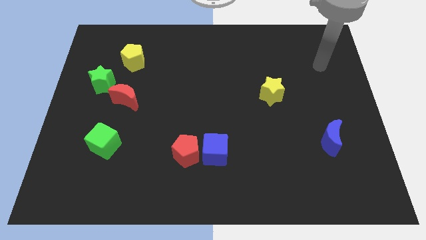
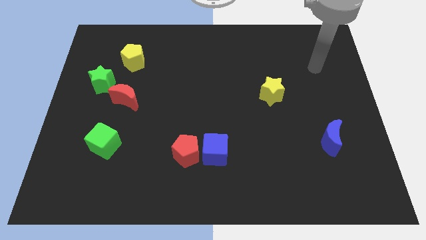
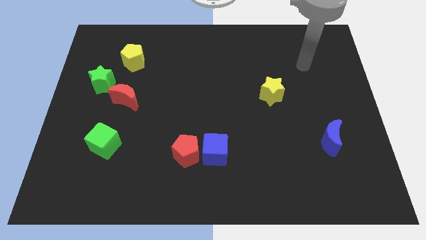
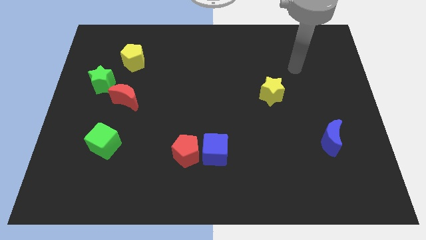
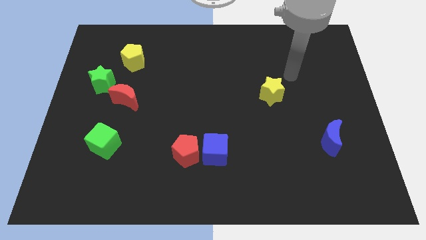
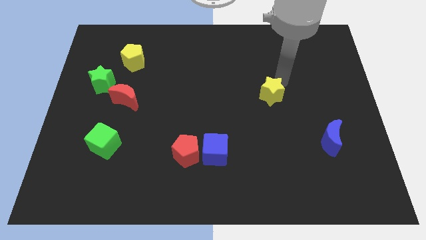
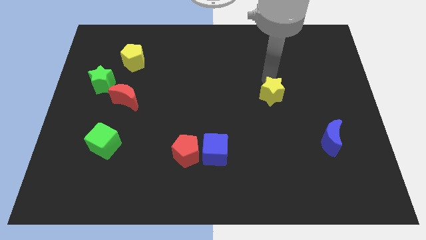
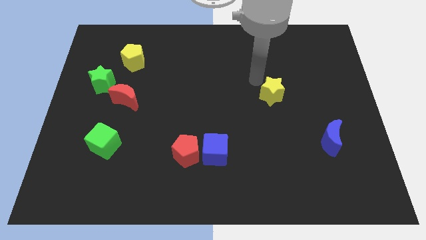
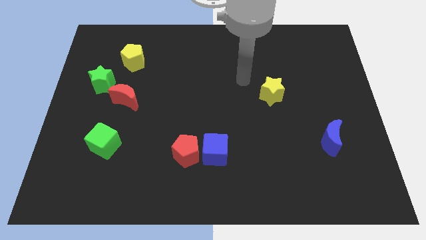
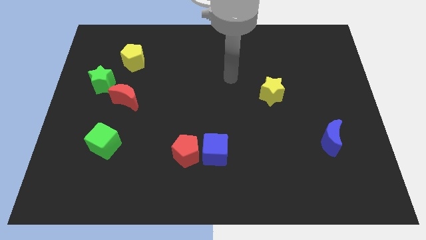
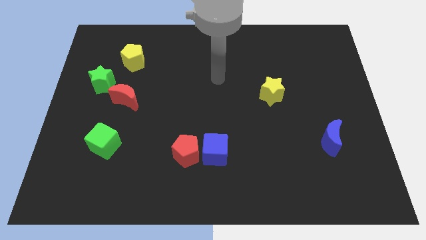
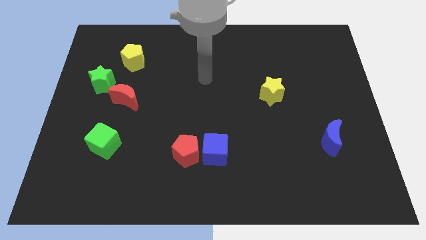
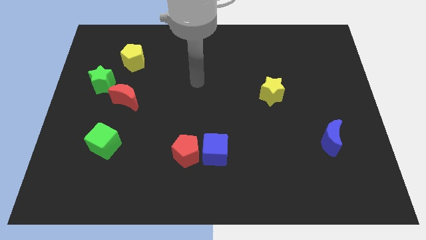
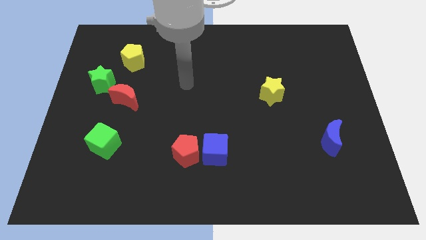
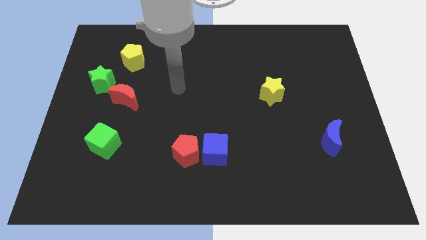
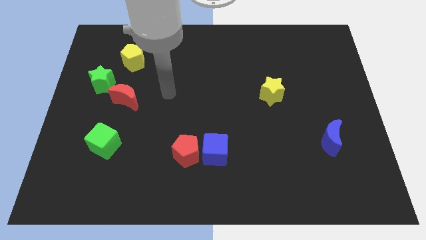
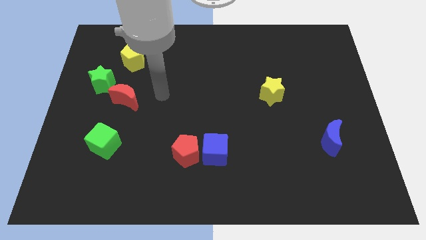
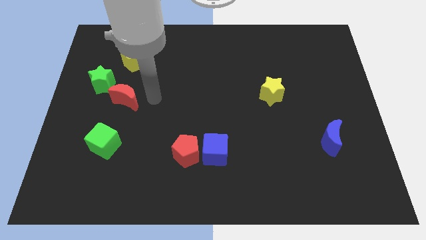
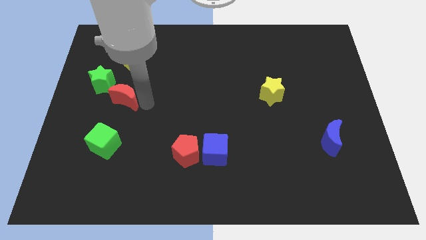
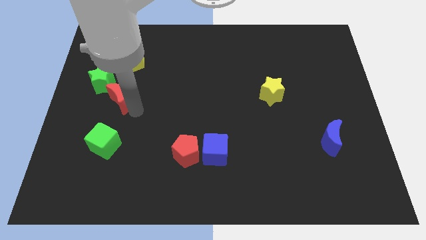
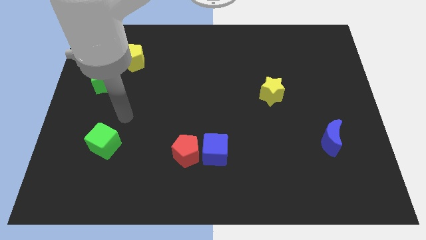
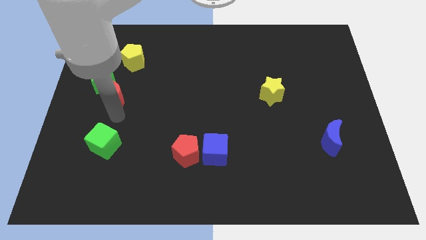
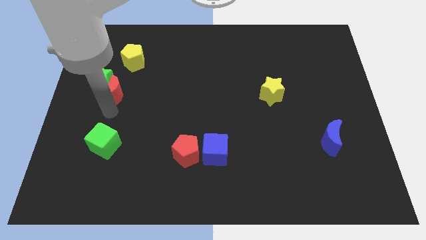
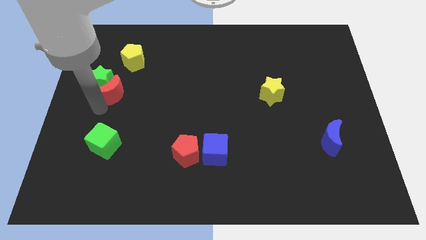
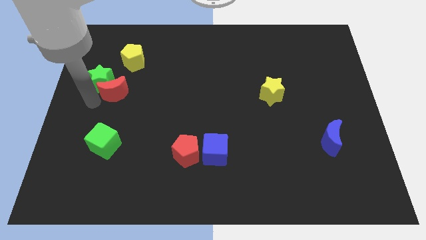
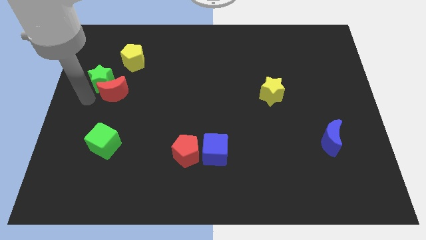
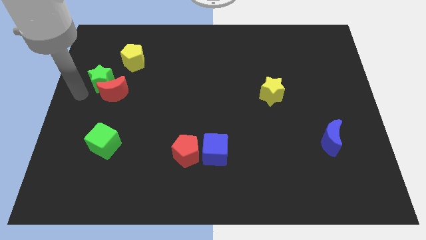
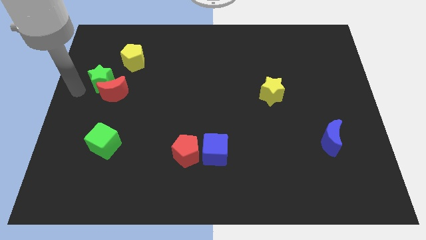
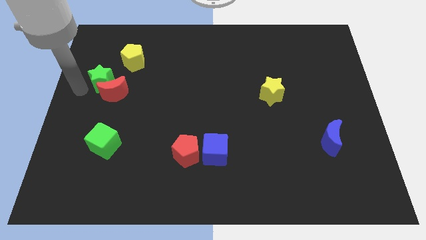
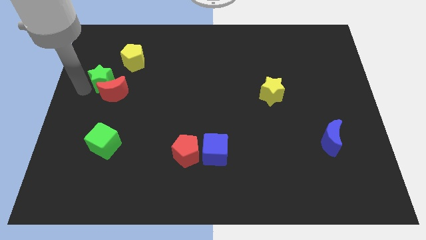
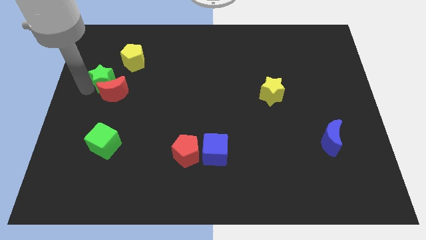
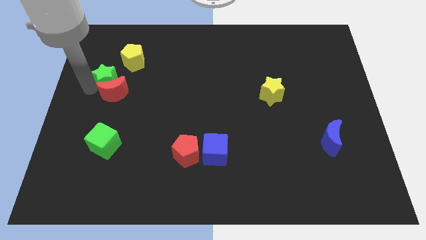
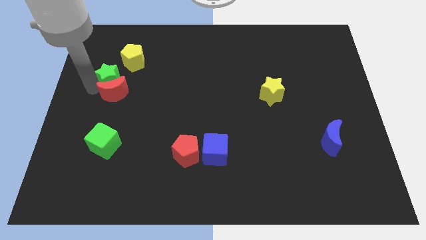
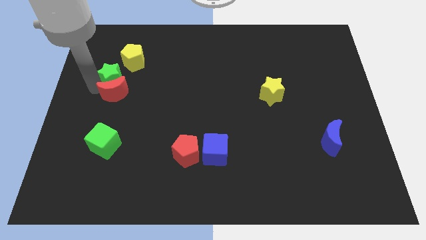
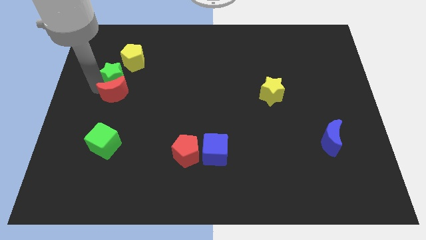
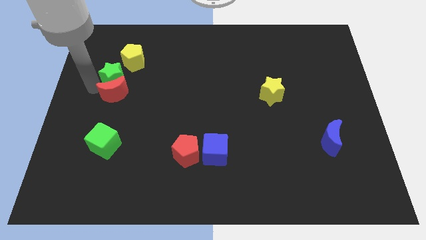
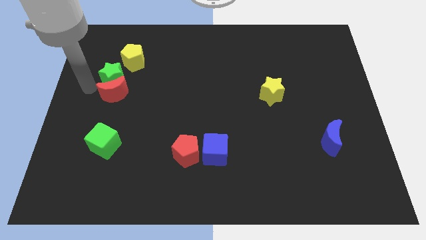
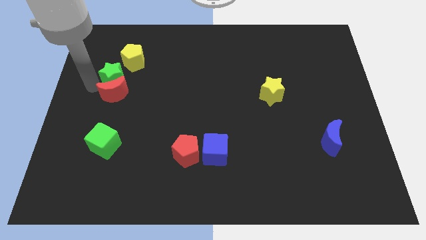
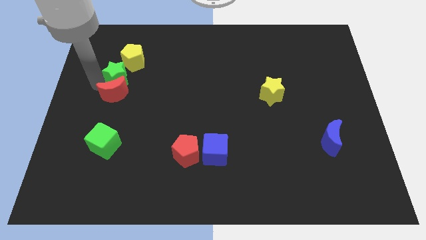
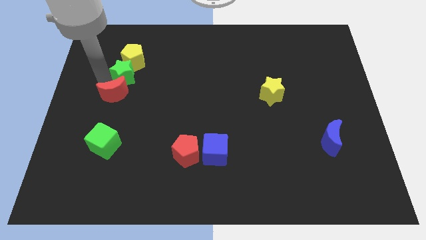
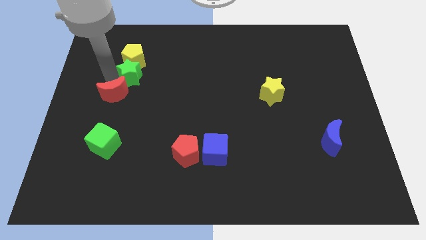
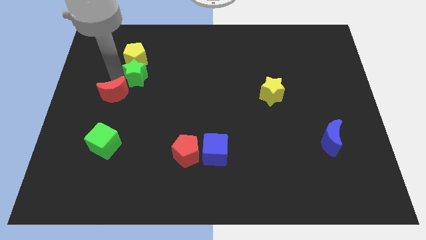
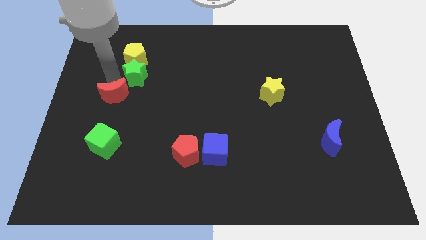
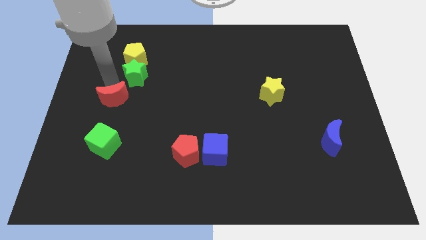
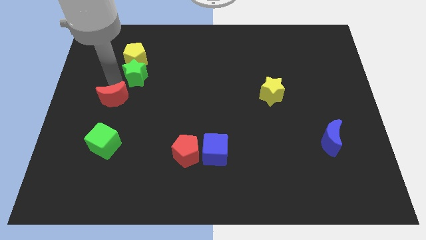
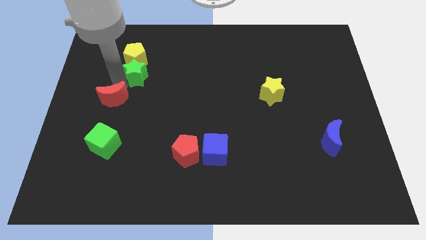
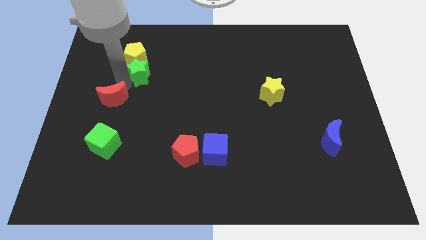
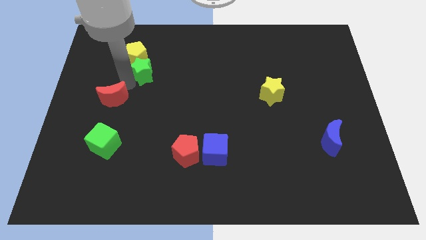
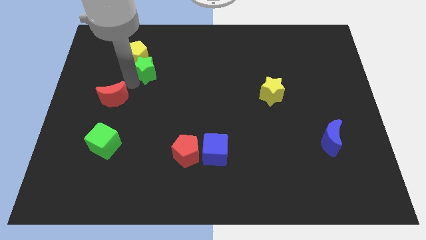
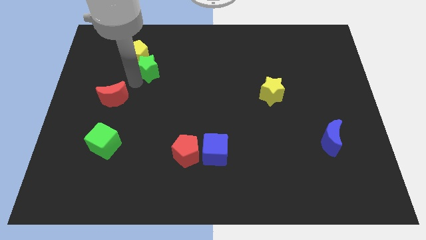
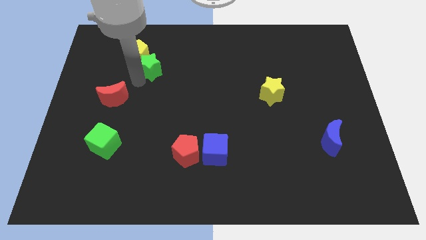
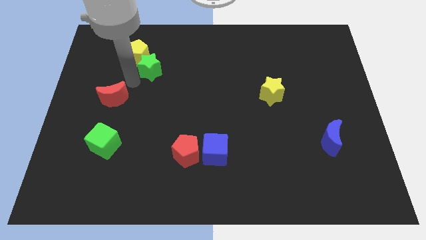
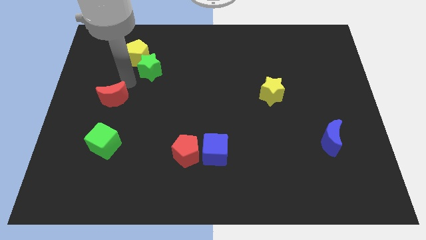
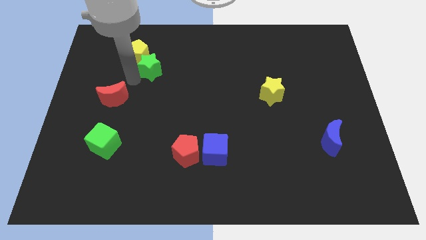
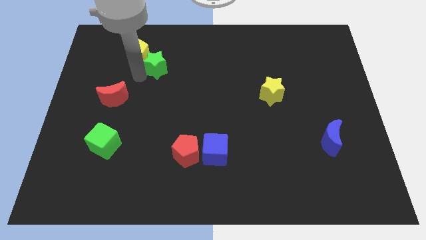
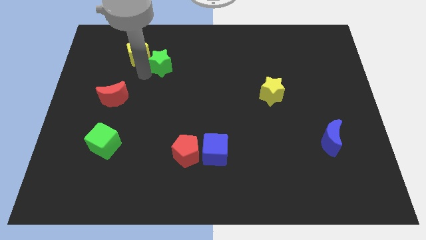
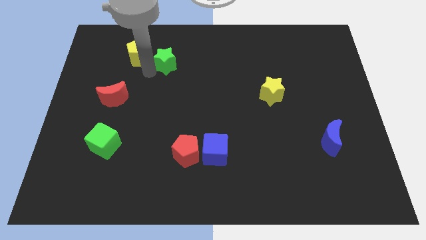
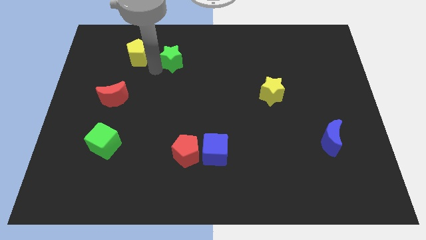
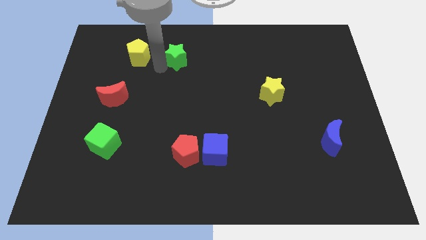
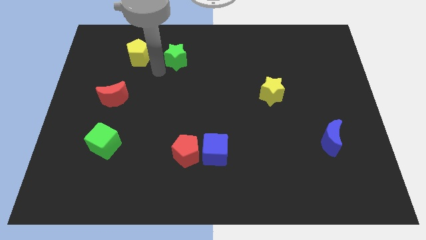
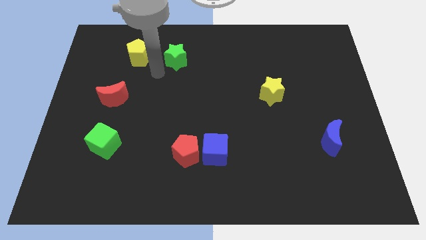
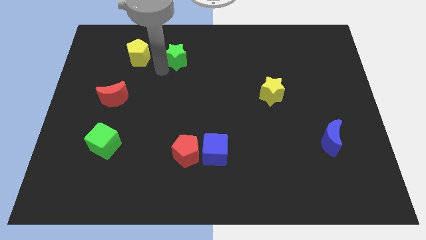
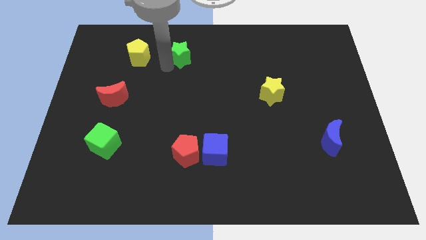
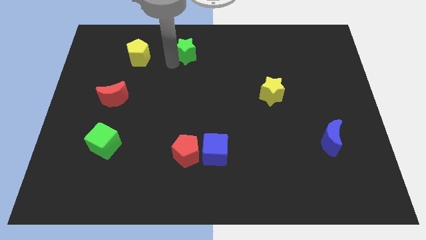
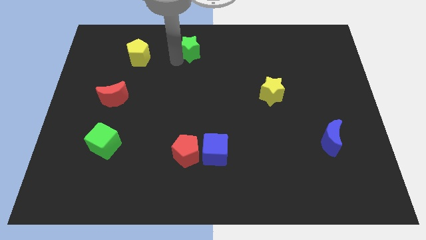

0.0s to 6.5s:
slide the green star to the top

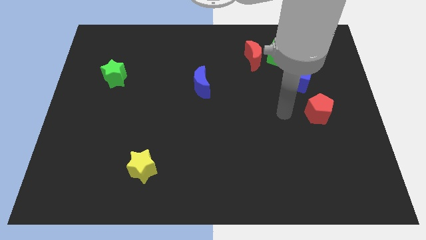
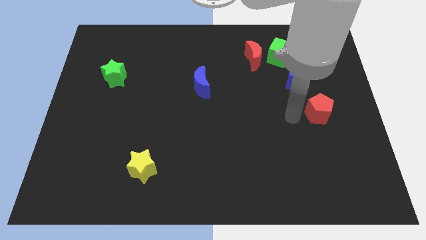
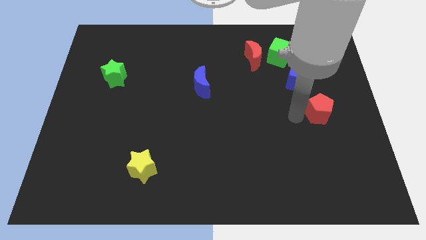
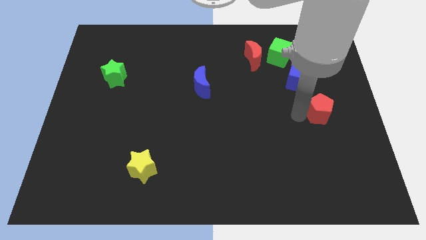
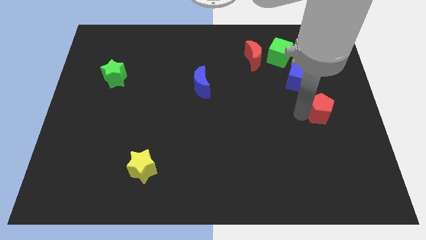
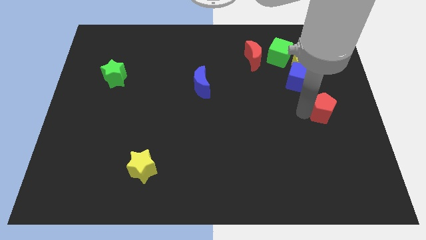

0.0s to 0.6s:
put the red pentagon to the right side of the board
